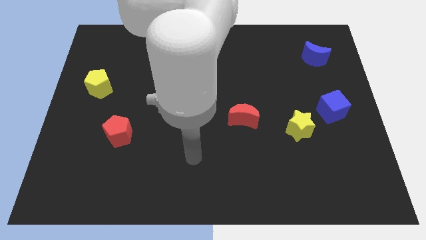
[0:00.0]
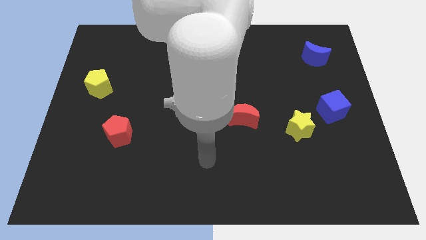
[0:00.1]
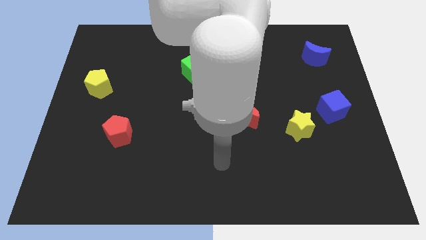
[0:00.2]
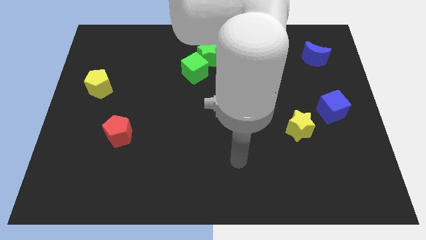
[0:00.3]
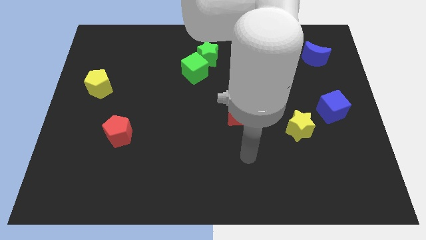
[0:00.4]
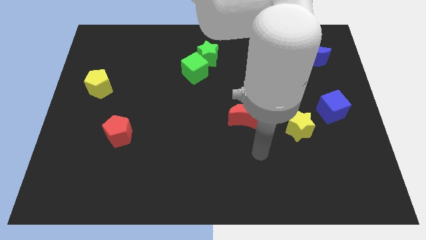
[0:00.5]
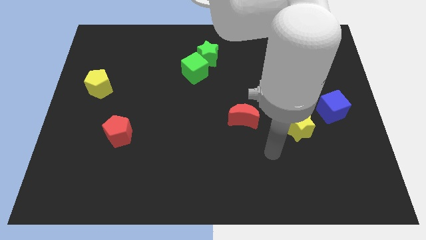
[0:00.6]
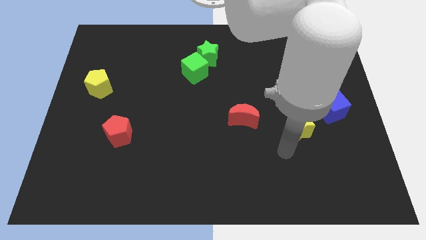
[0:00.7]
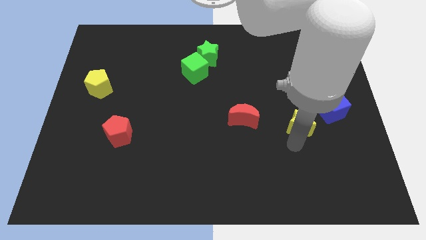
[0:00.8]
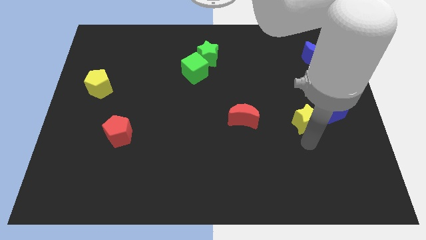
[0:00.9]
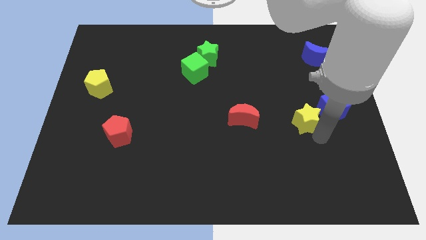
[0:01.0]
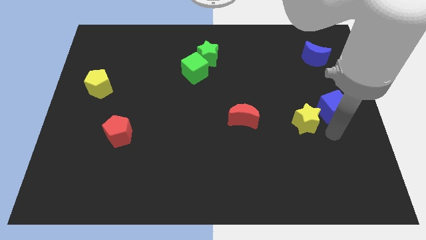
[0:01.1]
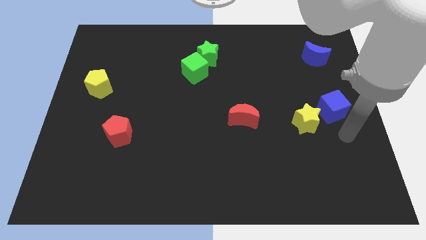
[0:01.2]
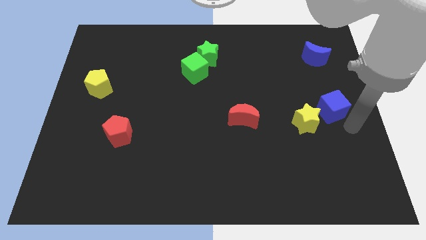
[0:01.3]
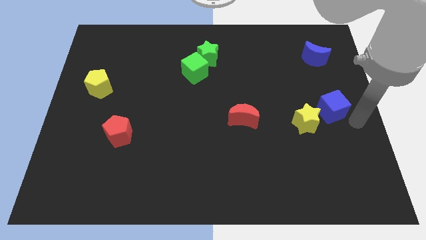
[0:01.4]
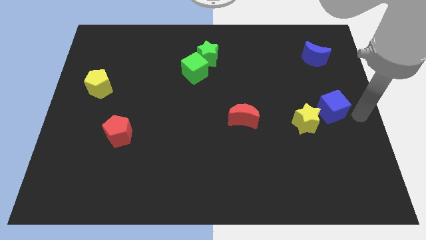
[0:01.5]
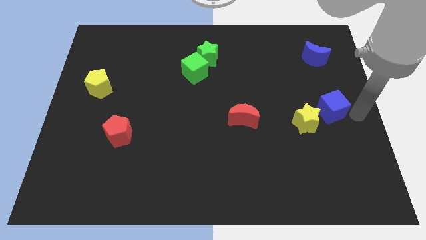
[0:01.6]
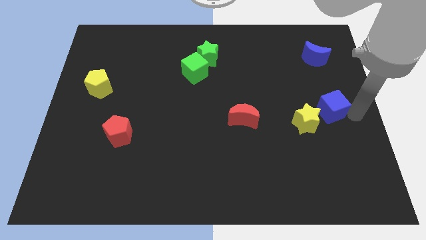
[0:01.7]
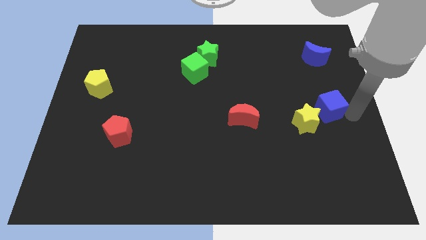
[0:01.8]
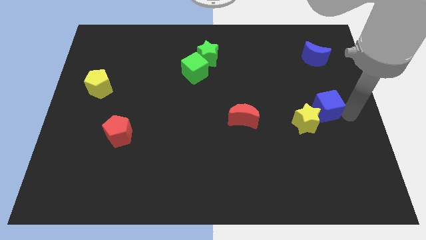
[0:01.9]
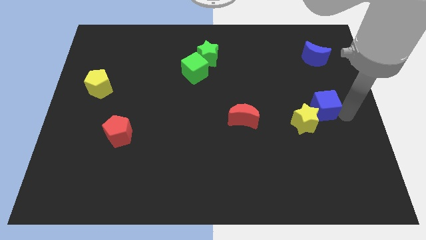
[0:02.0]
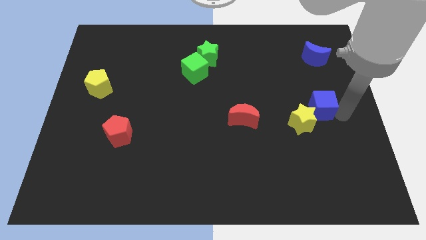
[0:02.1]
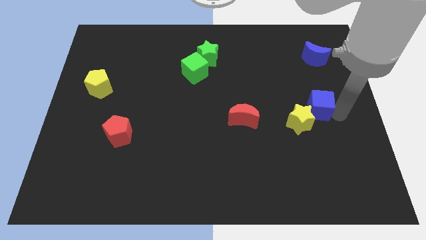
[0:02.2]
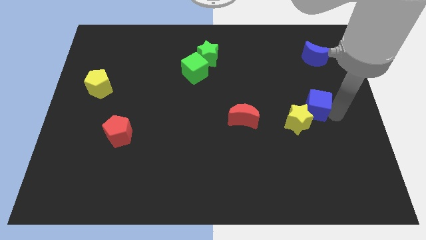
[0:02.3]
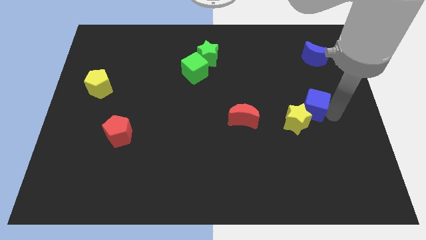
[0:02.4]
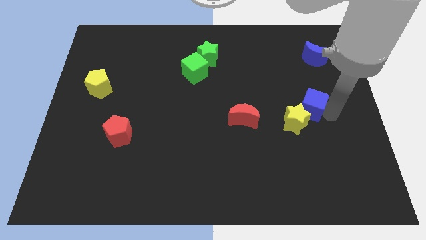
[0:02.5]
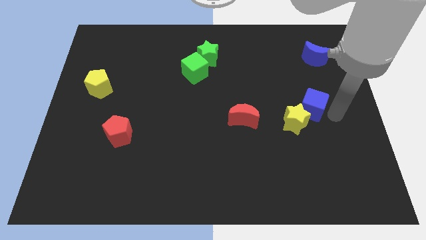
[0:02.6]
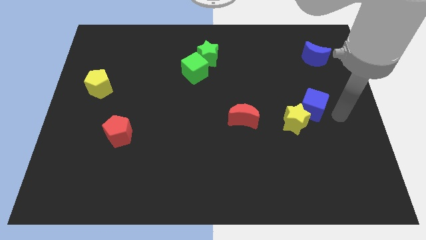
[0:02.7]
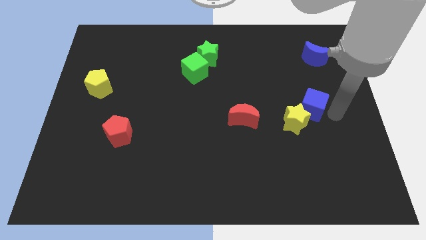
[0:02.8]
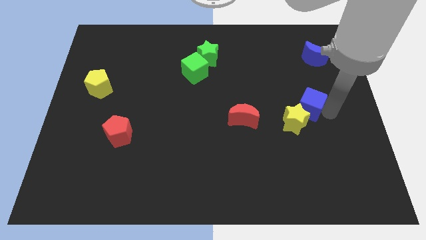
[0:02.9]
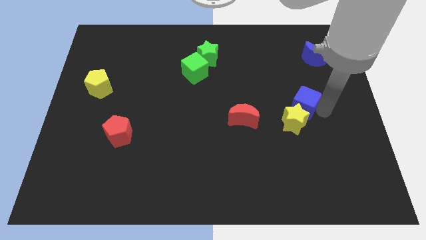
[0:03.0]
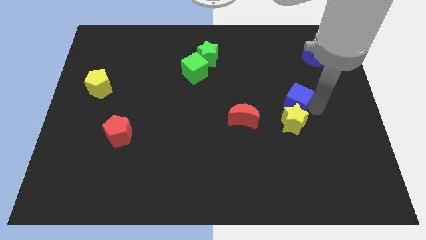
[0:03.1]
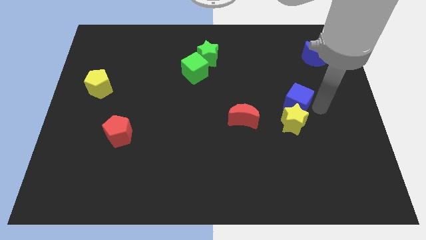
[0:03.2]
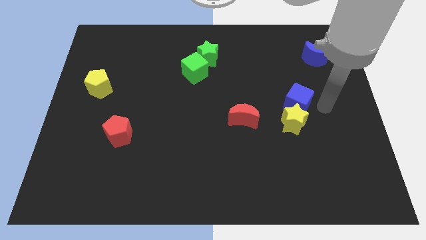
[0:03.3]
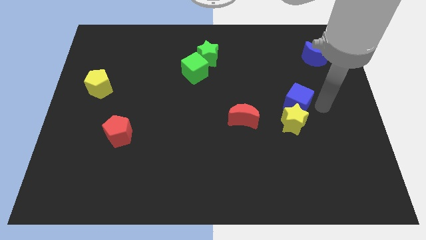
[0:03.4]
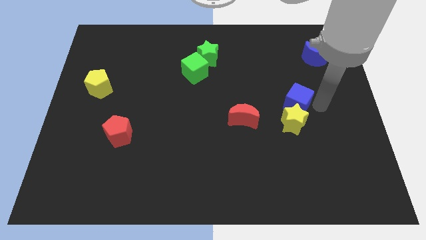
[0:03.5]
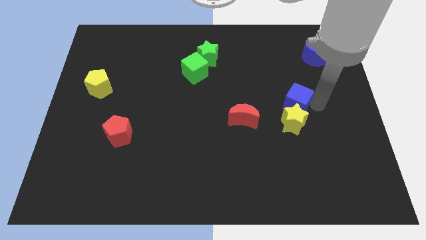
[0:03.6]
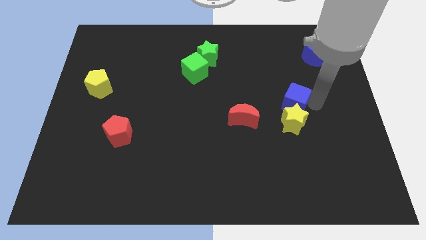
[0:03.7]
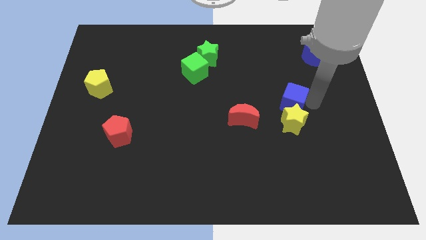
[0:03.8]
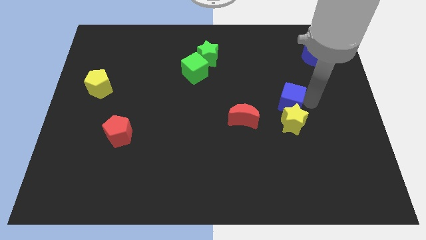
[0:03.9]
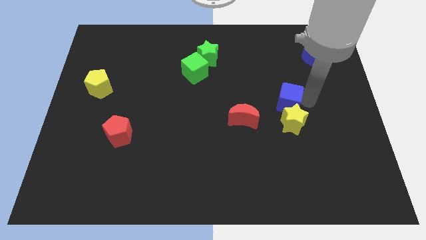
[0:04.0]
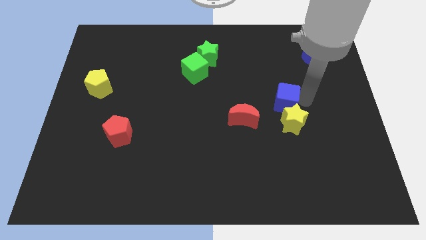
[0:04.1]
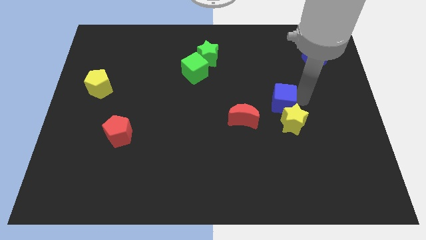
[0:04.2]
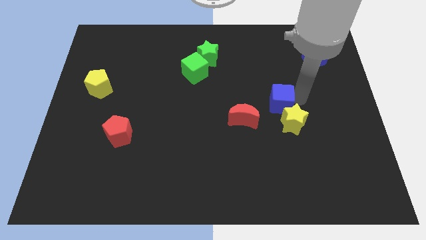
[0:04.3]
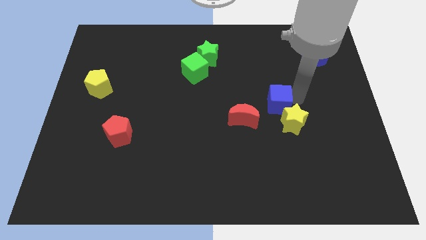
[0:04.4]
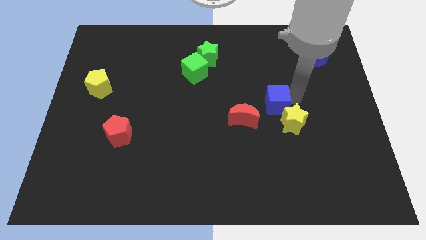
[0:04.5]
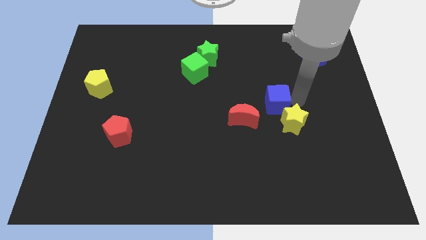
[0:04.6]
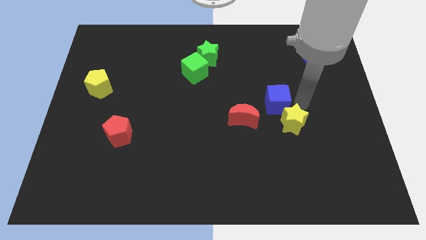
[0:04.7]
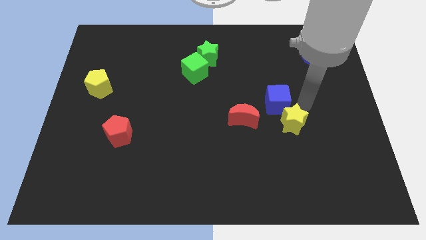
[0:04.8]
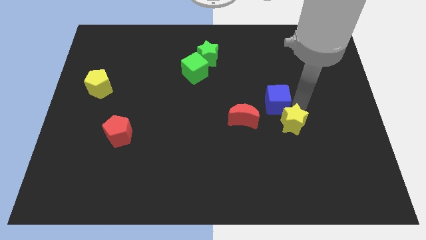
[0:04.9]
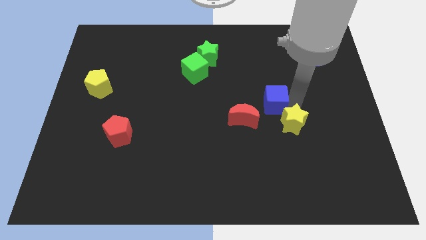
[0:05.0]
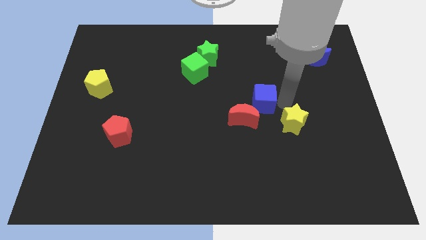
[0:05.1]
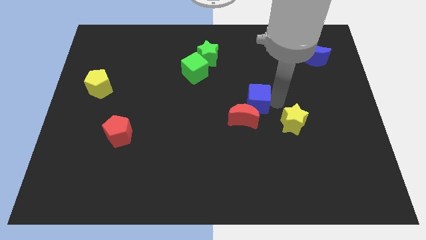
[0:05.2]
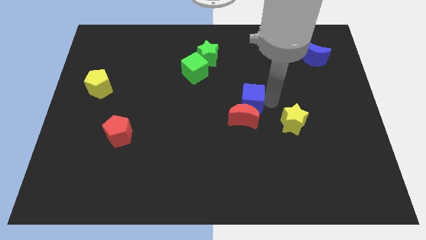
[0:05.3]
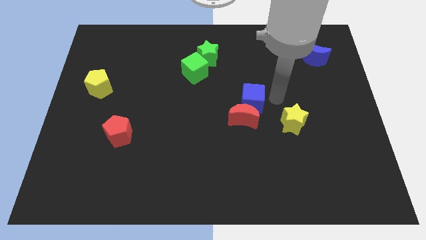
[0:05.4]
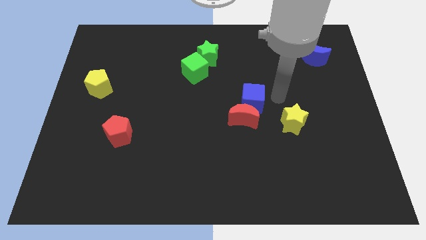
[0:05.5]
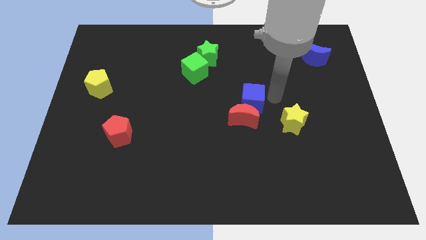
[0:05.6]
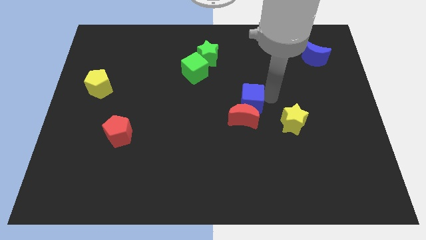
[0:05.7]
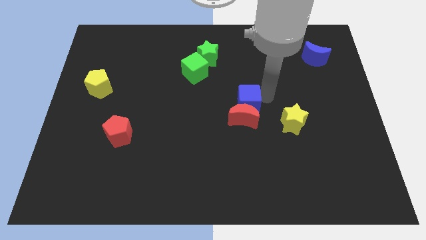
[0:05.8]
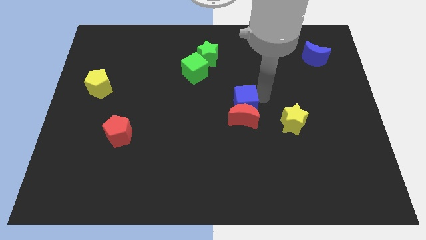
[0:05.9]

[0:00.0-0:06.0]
push the blue cube left

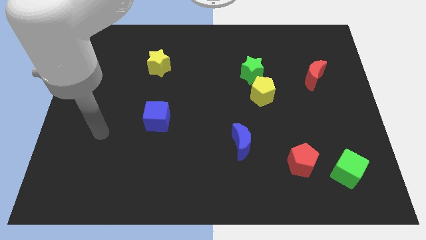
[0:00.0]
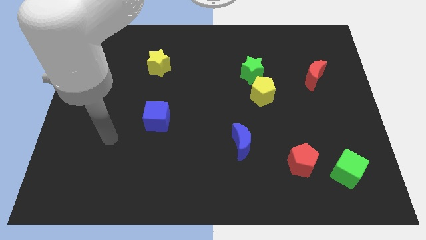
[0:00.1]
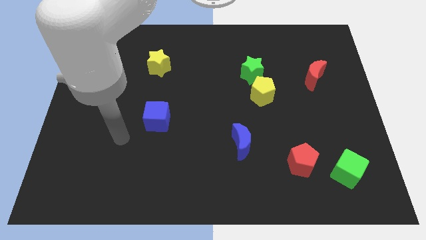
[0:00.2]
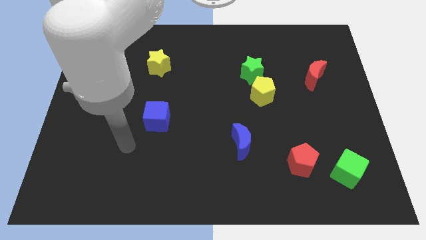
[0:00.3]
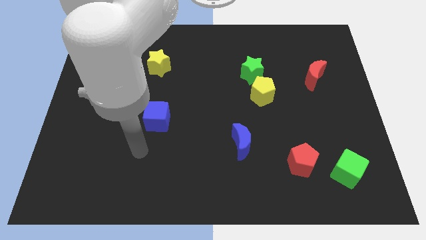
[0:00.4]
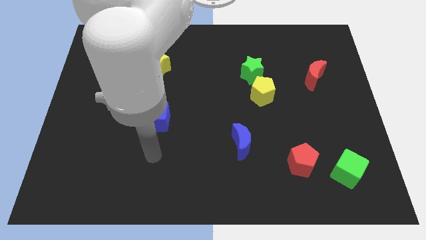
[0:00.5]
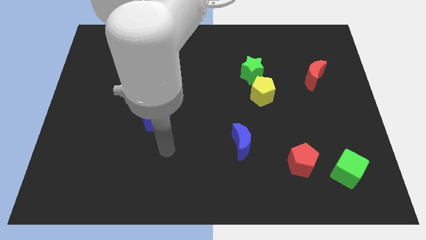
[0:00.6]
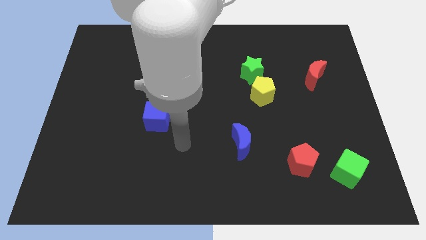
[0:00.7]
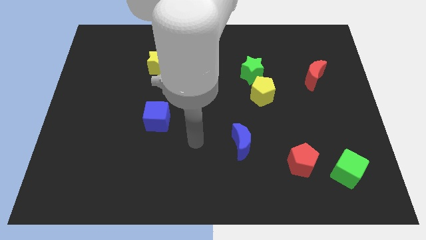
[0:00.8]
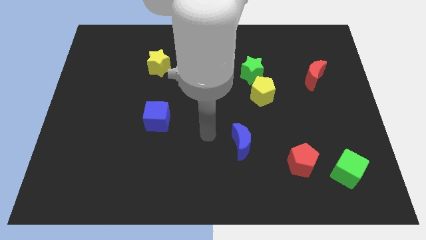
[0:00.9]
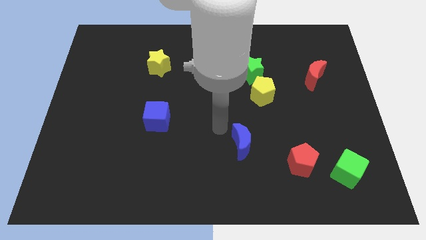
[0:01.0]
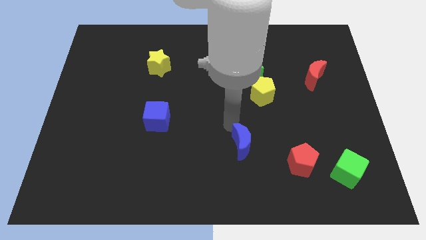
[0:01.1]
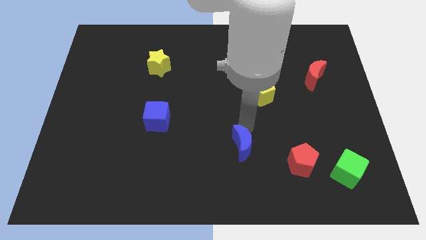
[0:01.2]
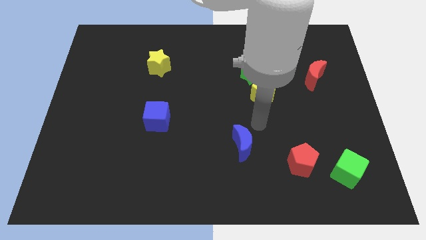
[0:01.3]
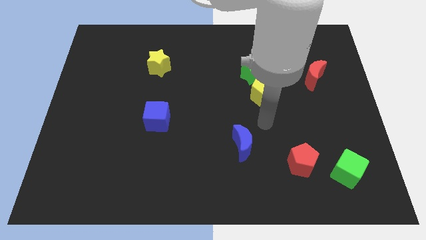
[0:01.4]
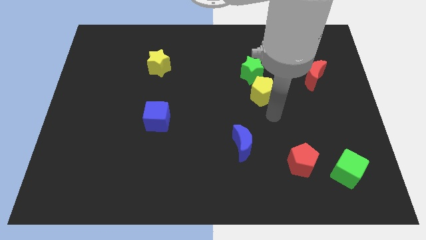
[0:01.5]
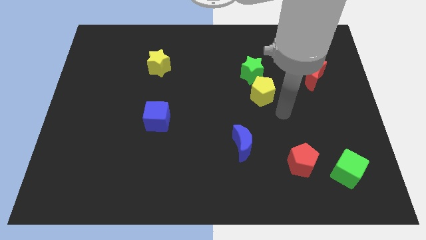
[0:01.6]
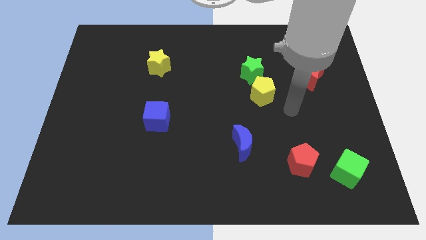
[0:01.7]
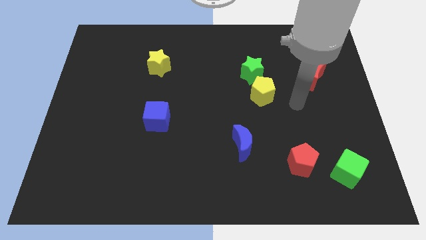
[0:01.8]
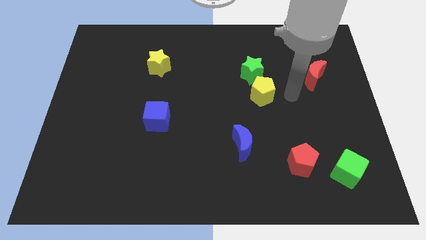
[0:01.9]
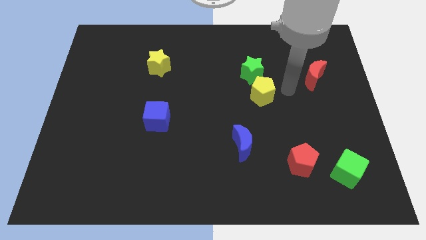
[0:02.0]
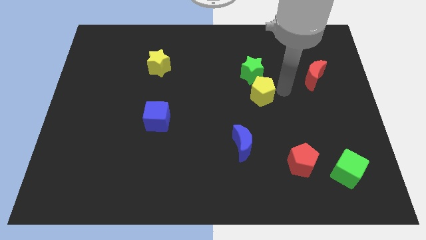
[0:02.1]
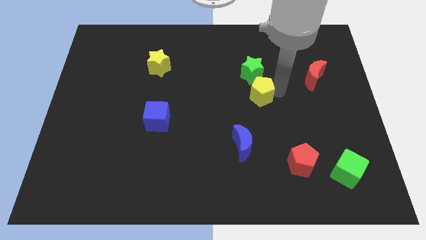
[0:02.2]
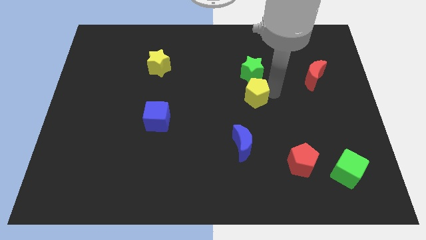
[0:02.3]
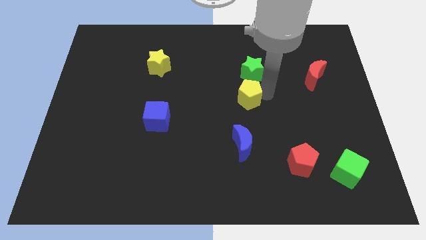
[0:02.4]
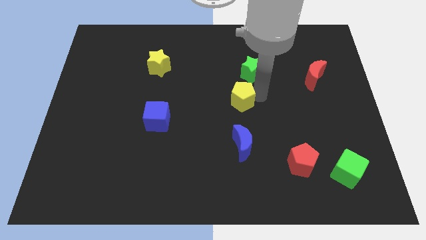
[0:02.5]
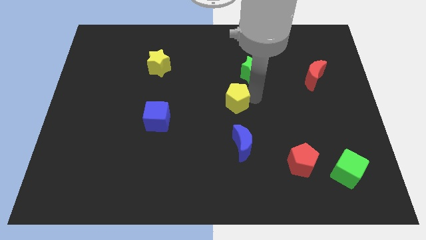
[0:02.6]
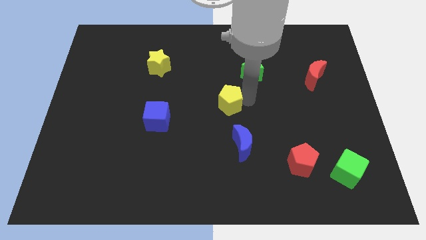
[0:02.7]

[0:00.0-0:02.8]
slide the yellow pentagon to the left a bit
